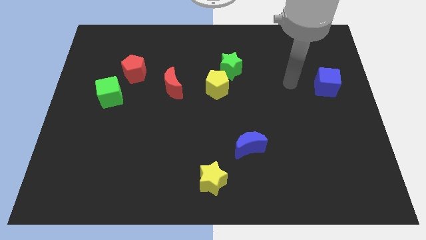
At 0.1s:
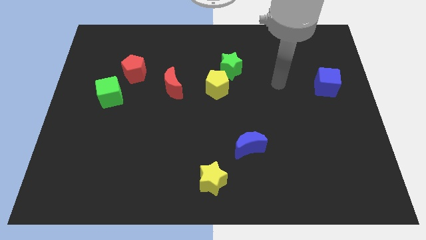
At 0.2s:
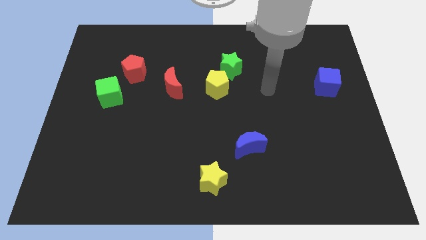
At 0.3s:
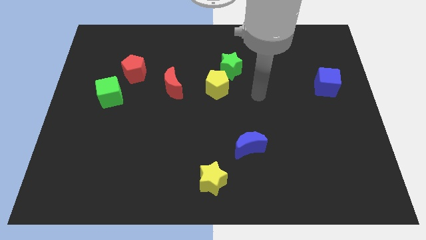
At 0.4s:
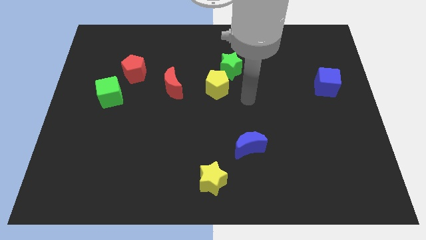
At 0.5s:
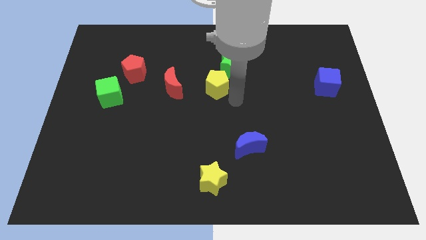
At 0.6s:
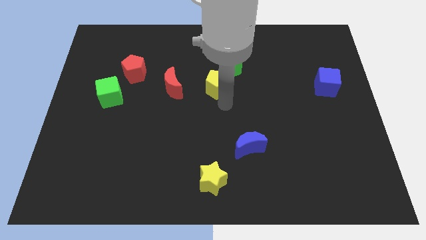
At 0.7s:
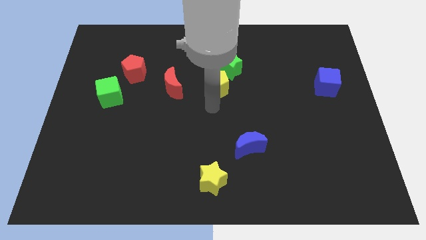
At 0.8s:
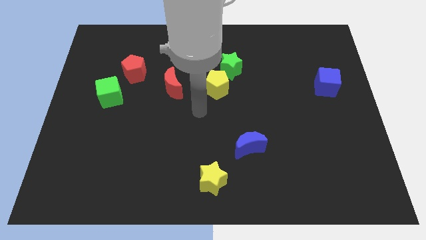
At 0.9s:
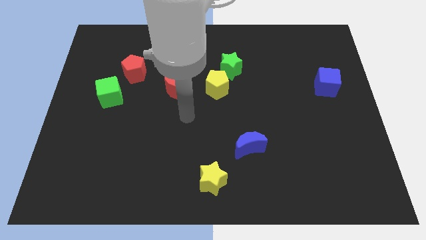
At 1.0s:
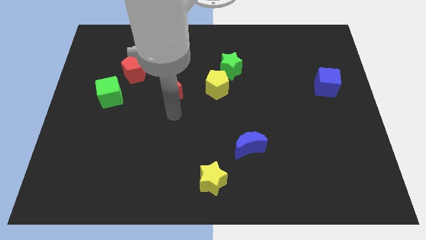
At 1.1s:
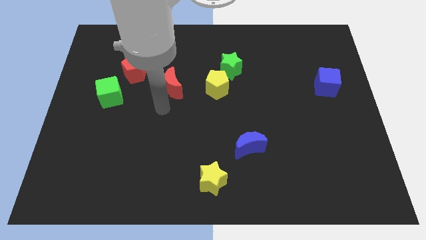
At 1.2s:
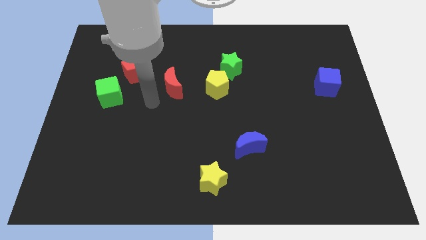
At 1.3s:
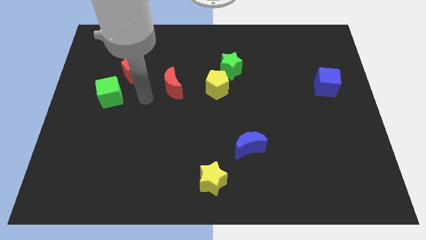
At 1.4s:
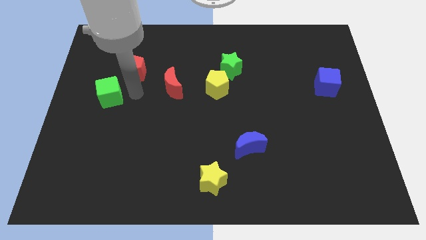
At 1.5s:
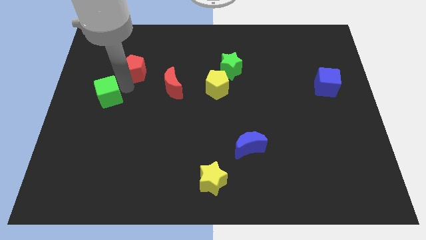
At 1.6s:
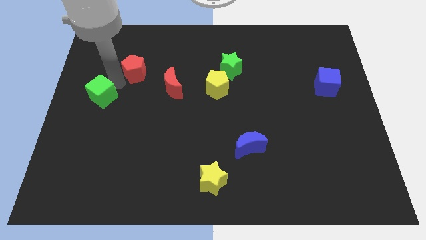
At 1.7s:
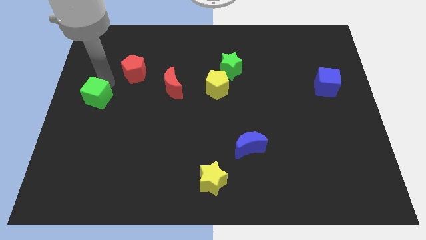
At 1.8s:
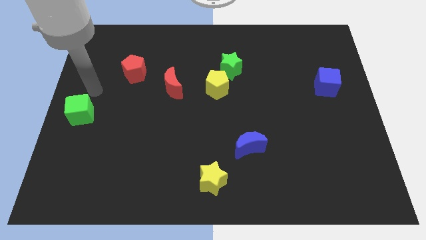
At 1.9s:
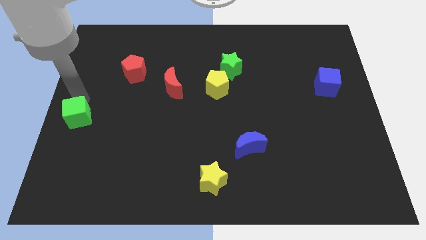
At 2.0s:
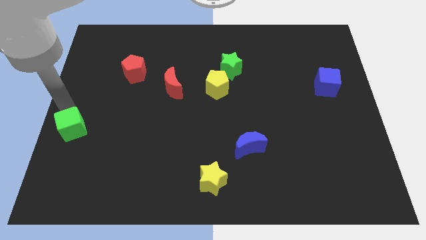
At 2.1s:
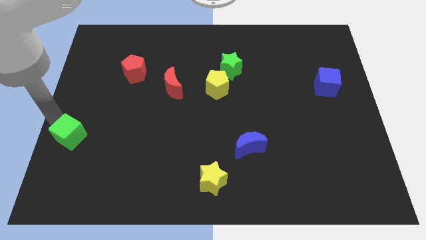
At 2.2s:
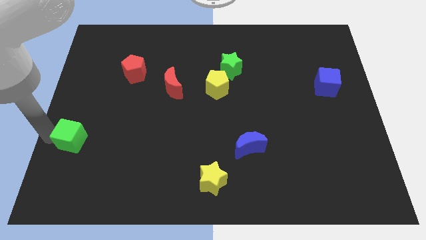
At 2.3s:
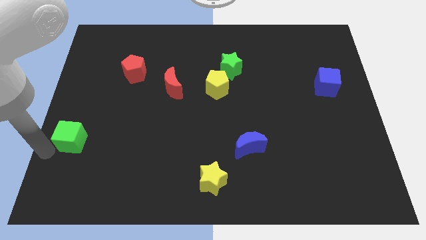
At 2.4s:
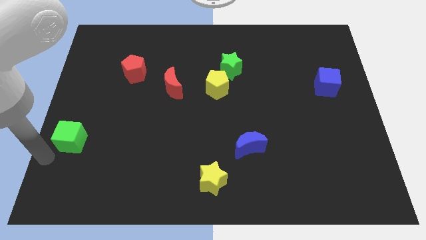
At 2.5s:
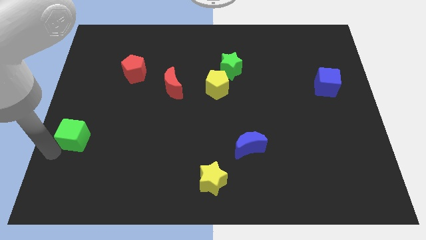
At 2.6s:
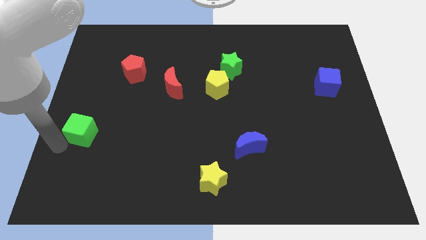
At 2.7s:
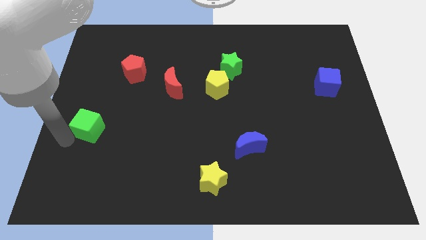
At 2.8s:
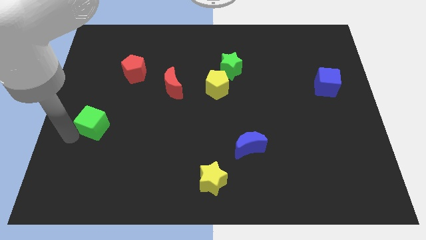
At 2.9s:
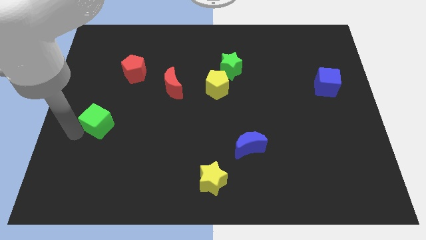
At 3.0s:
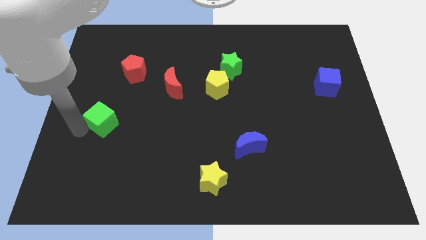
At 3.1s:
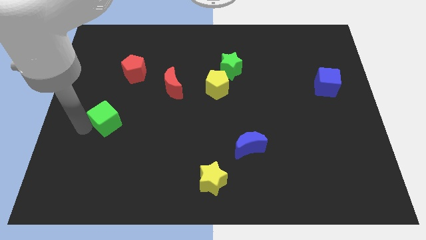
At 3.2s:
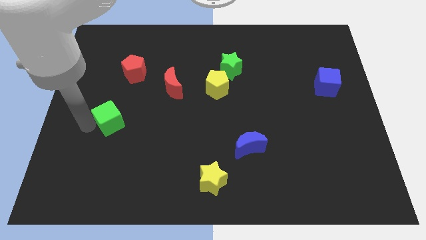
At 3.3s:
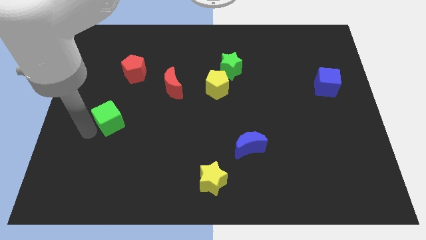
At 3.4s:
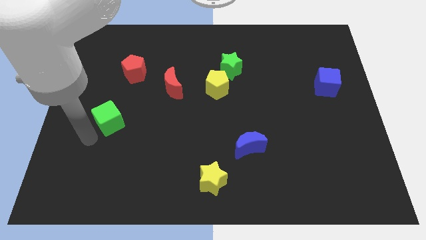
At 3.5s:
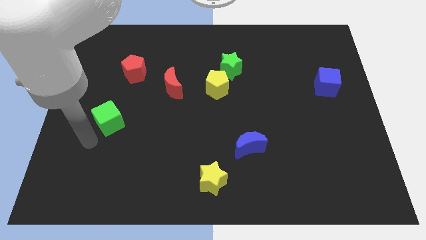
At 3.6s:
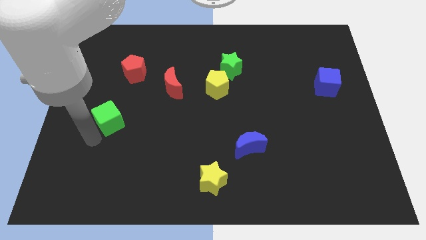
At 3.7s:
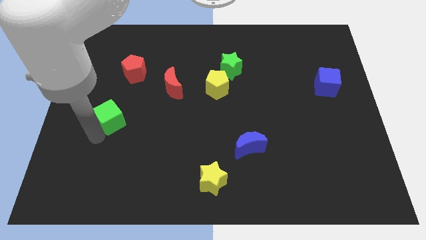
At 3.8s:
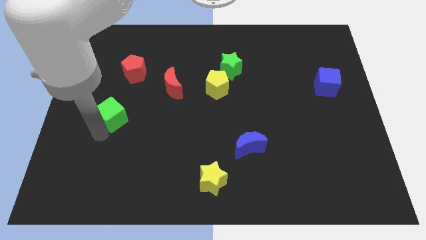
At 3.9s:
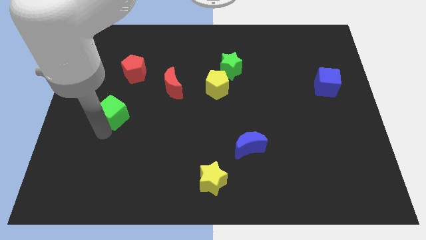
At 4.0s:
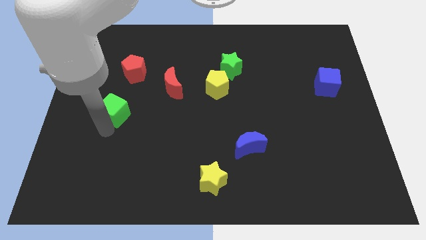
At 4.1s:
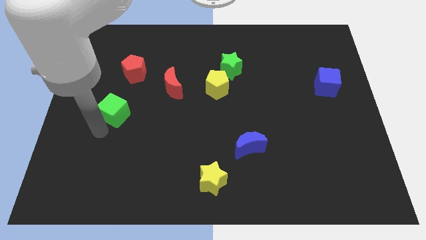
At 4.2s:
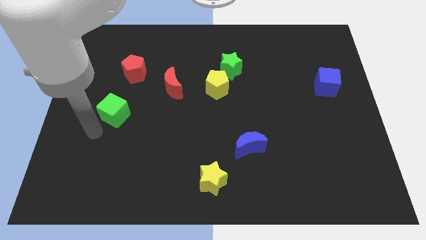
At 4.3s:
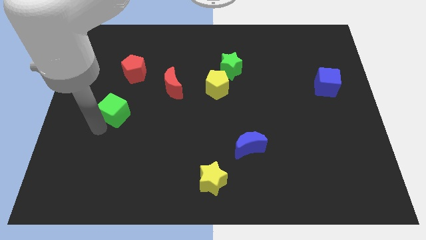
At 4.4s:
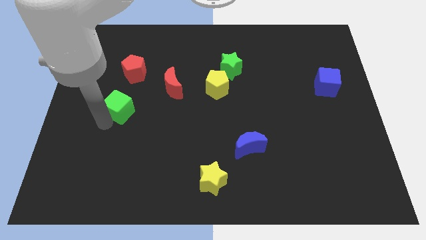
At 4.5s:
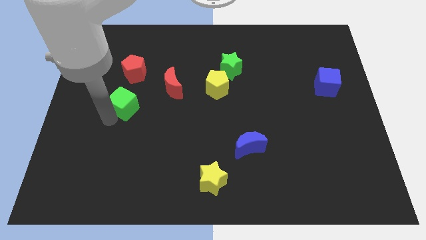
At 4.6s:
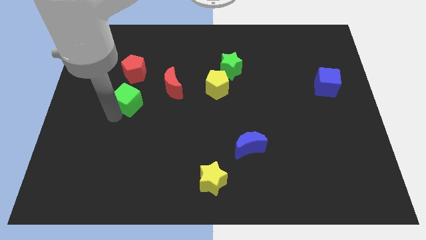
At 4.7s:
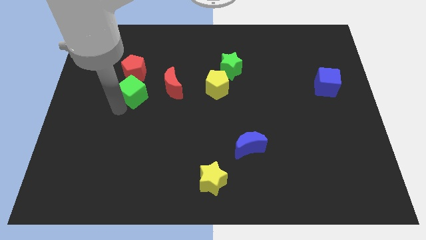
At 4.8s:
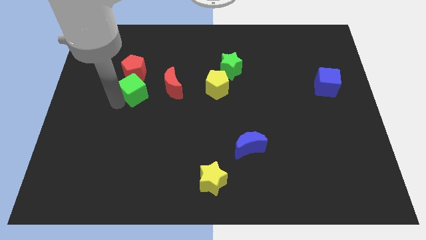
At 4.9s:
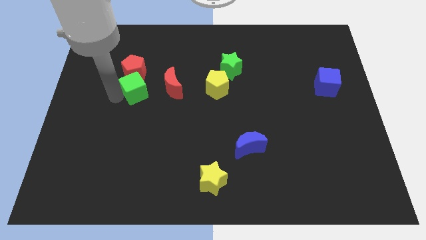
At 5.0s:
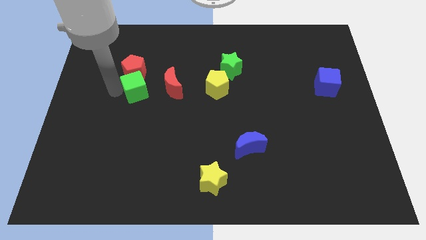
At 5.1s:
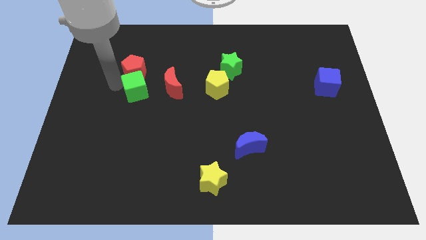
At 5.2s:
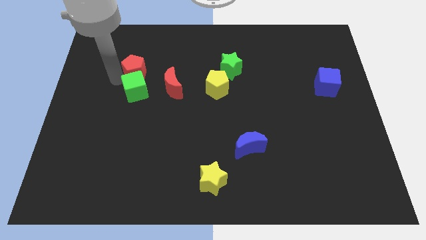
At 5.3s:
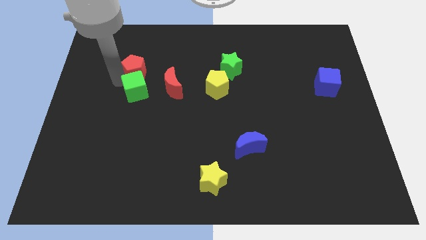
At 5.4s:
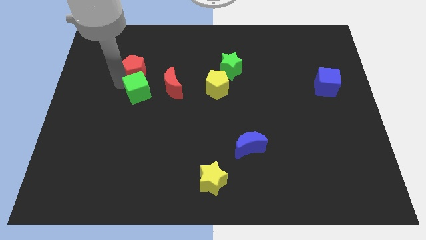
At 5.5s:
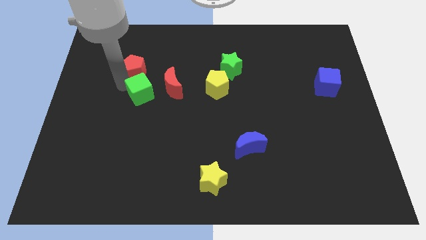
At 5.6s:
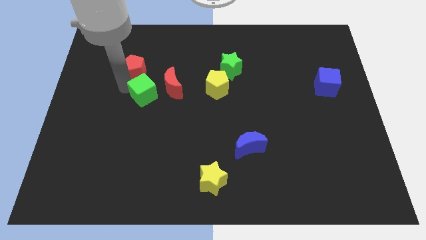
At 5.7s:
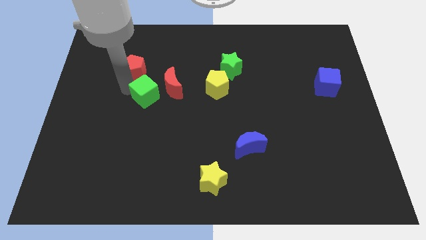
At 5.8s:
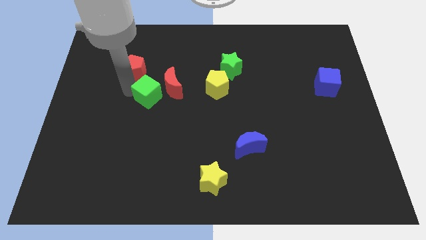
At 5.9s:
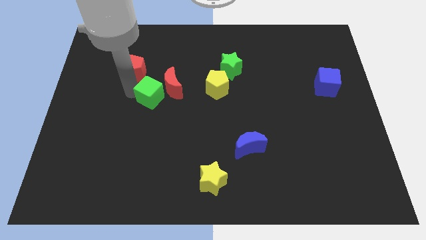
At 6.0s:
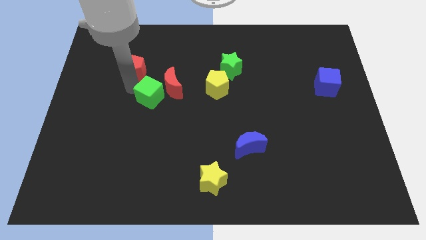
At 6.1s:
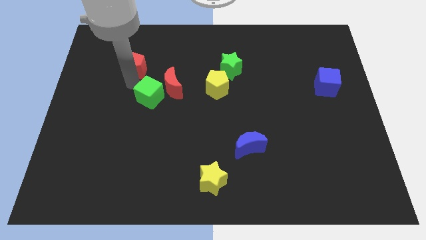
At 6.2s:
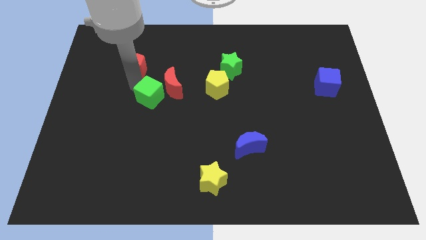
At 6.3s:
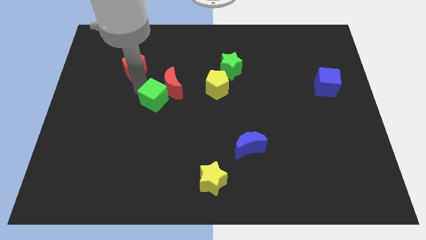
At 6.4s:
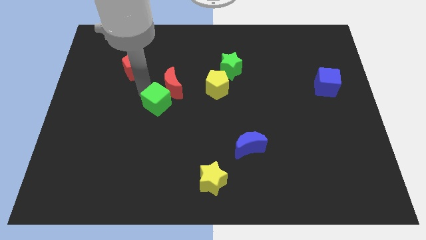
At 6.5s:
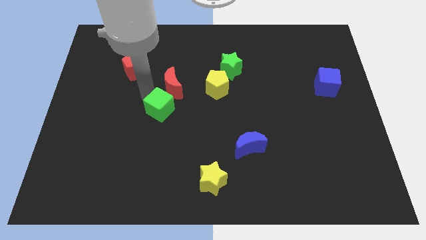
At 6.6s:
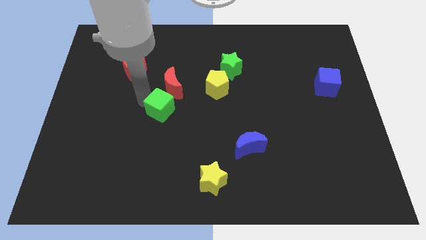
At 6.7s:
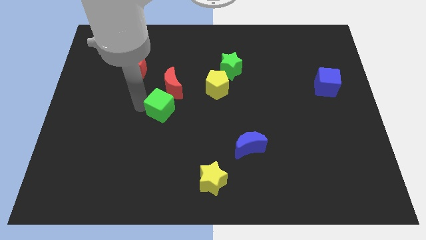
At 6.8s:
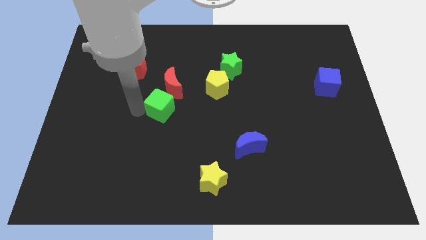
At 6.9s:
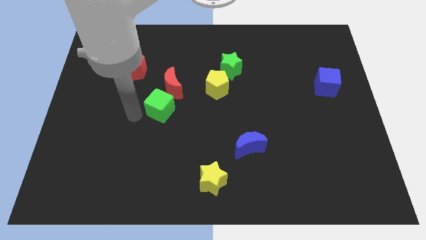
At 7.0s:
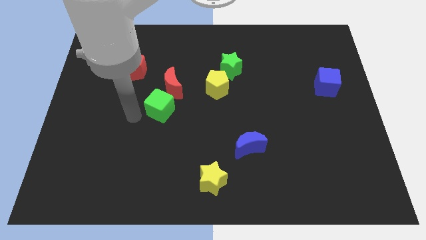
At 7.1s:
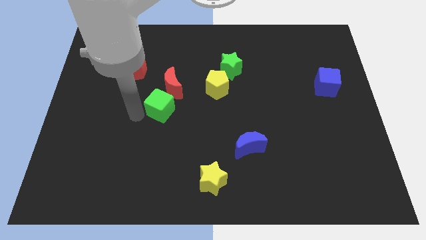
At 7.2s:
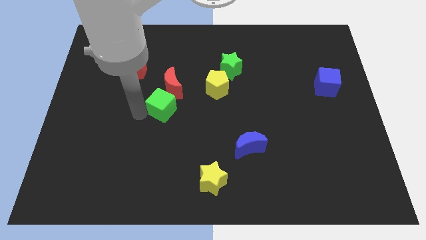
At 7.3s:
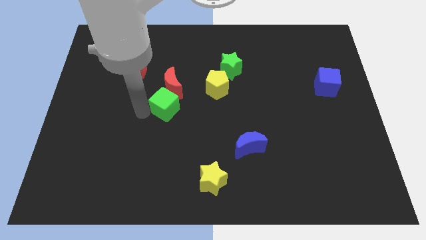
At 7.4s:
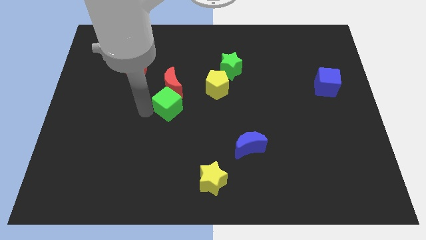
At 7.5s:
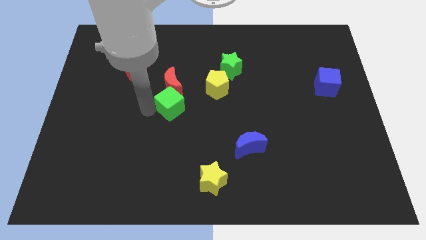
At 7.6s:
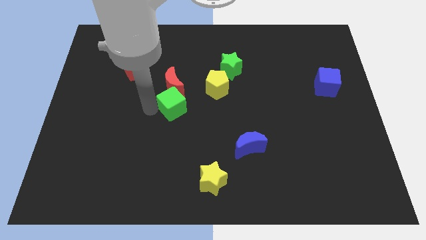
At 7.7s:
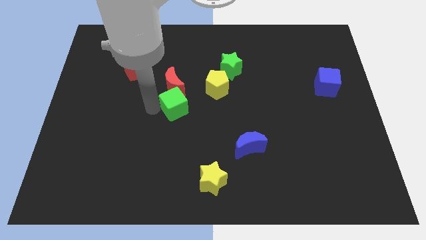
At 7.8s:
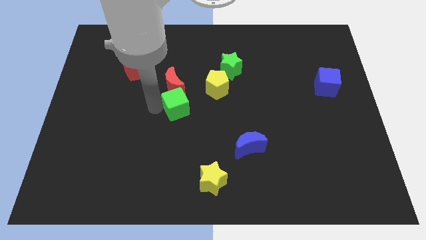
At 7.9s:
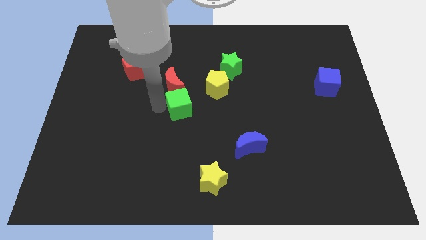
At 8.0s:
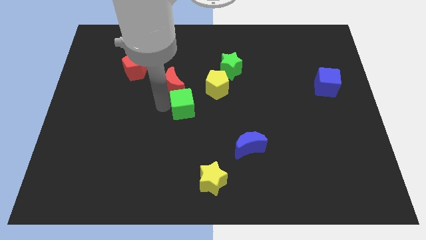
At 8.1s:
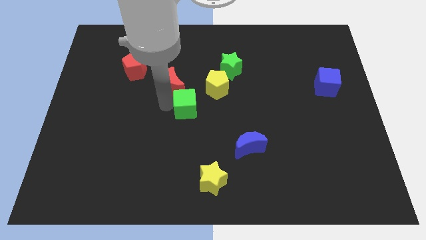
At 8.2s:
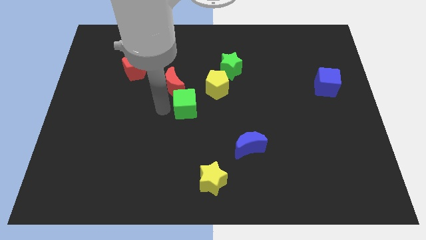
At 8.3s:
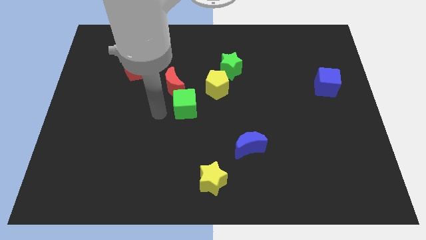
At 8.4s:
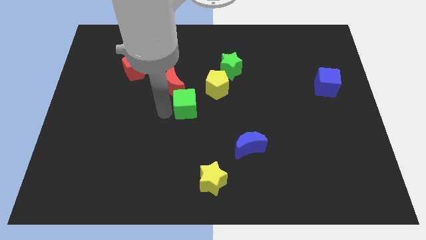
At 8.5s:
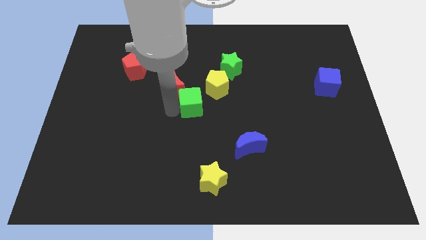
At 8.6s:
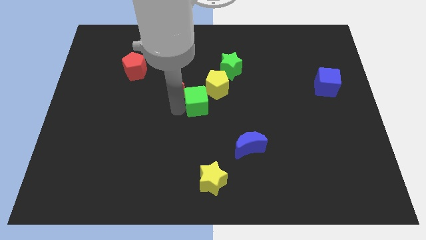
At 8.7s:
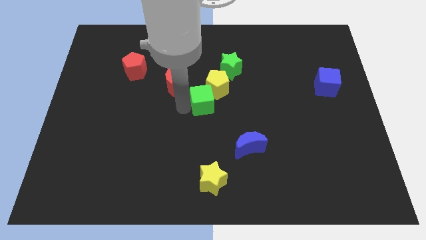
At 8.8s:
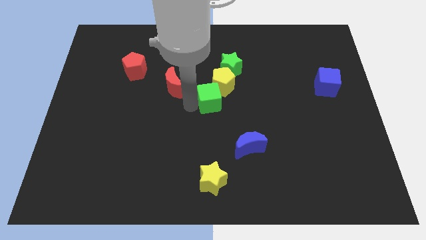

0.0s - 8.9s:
push the green cube to the bottom of the green star
